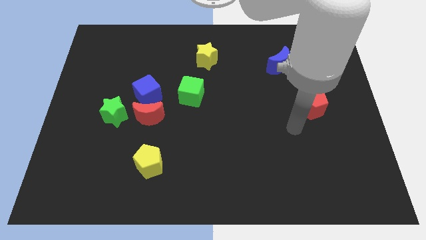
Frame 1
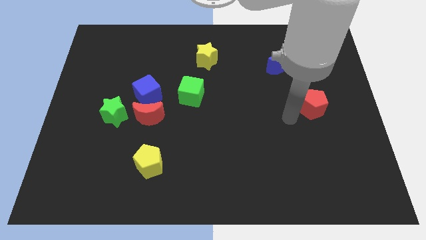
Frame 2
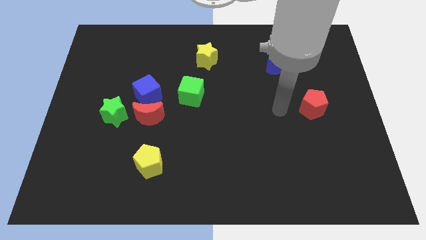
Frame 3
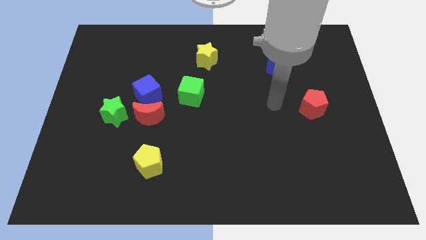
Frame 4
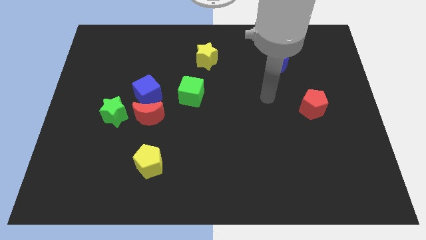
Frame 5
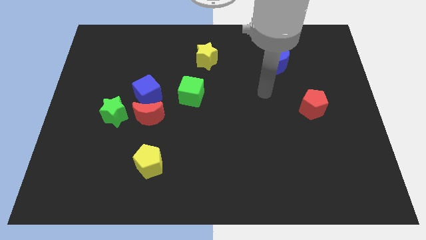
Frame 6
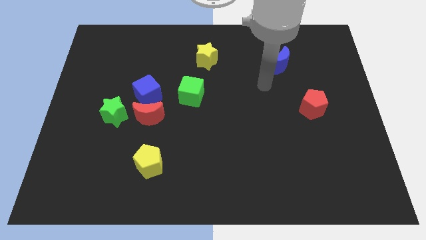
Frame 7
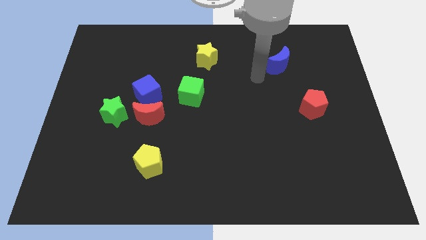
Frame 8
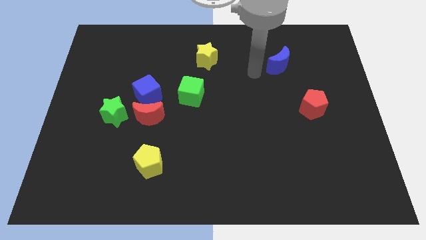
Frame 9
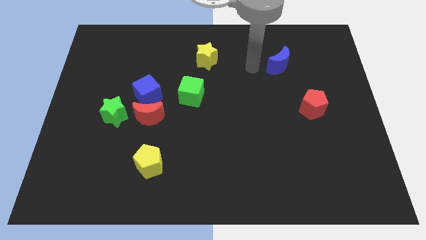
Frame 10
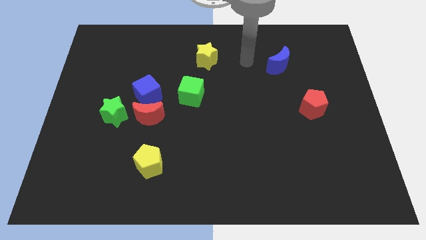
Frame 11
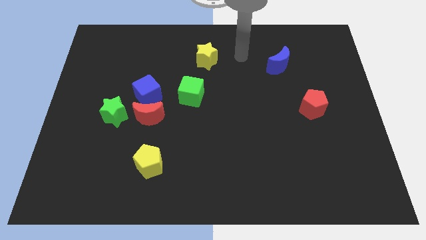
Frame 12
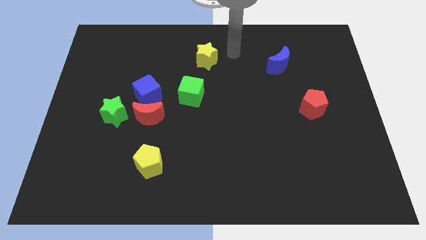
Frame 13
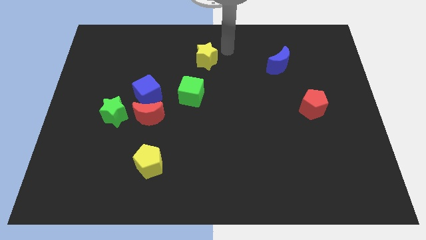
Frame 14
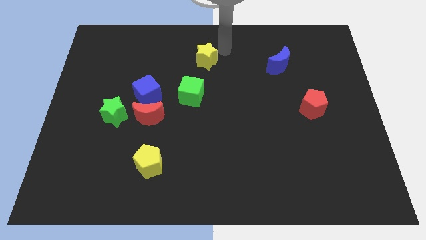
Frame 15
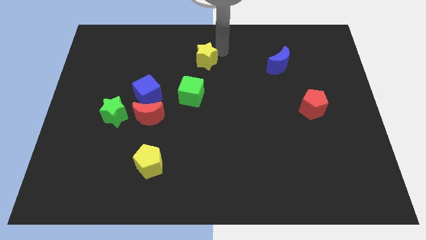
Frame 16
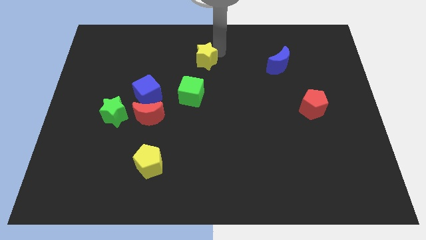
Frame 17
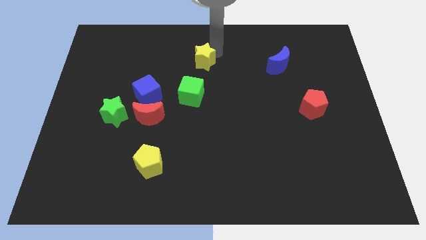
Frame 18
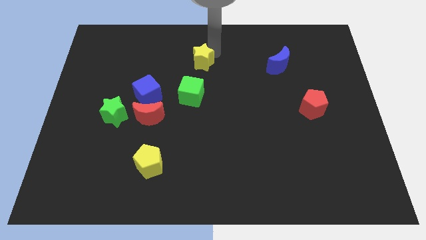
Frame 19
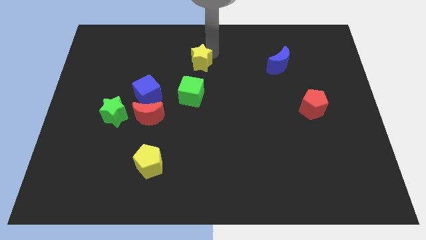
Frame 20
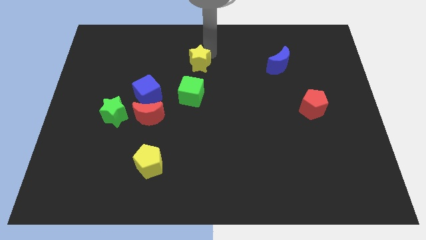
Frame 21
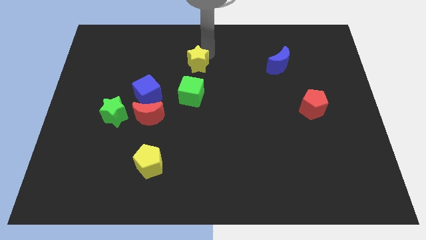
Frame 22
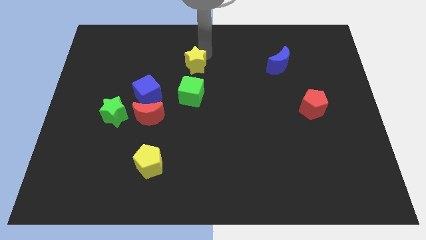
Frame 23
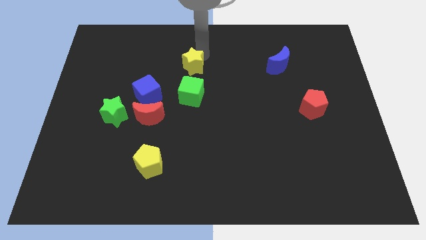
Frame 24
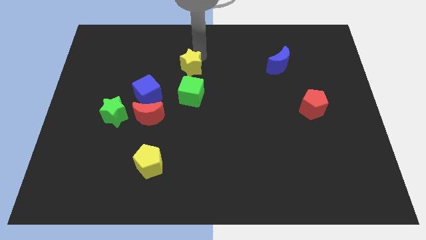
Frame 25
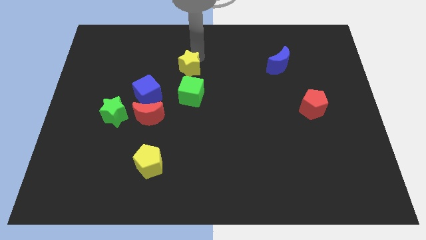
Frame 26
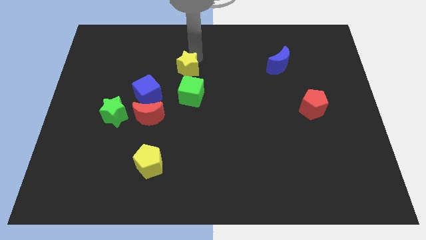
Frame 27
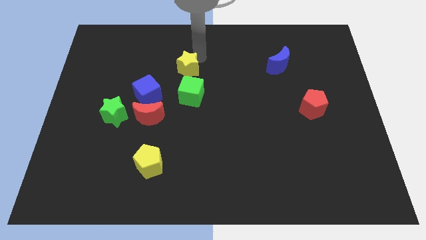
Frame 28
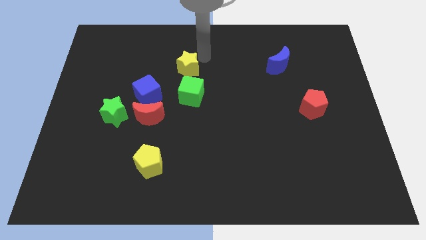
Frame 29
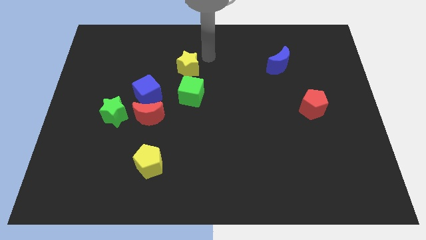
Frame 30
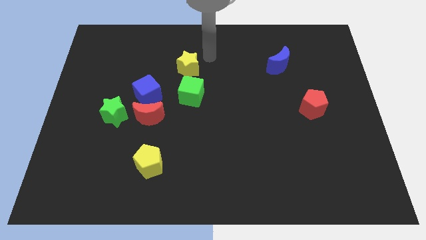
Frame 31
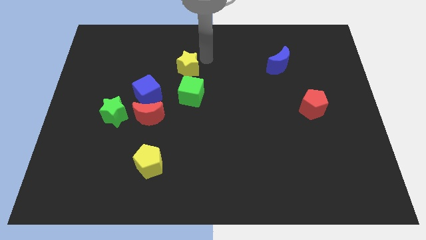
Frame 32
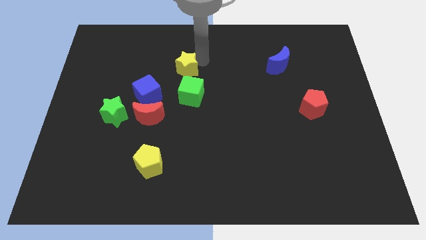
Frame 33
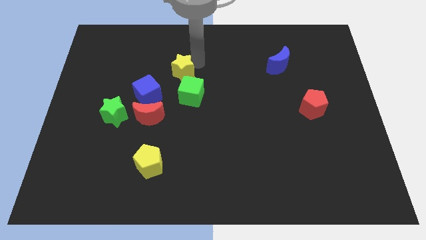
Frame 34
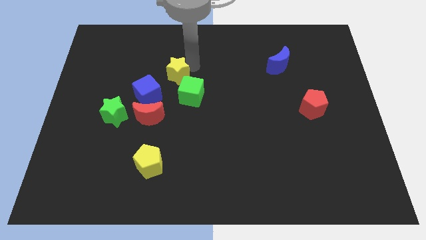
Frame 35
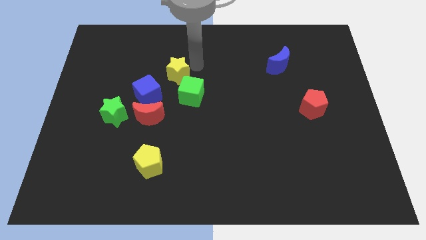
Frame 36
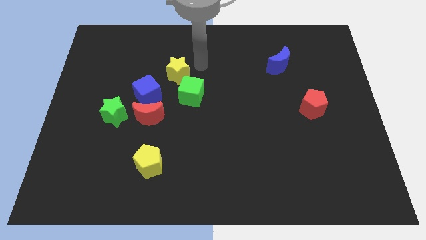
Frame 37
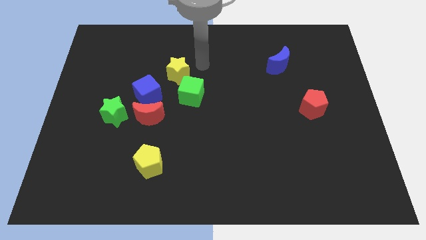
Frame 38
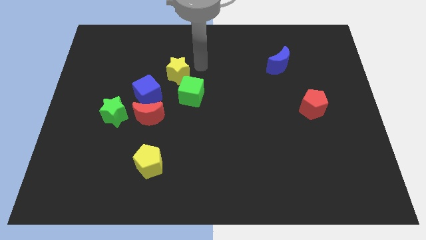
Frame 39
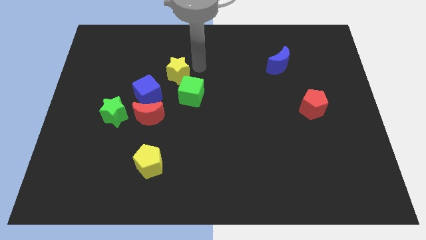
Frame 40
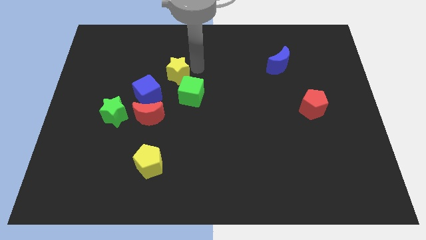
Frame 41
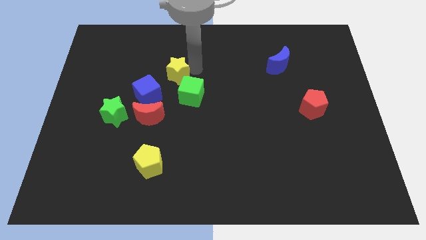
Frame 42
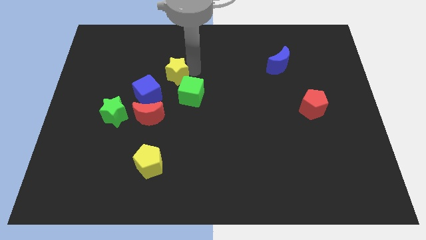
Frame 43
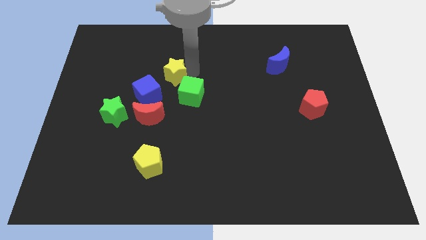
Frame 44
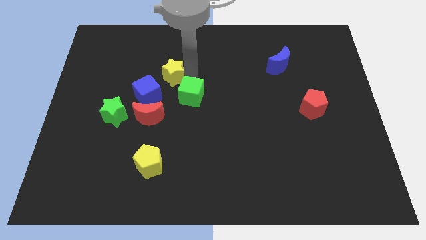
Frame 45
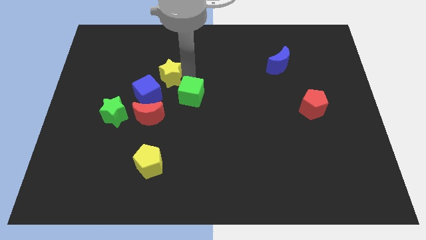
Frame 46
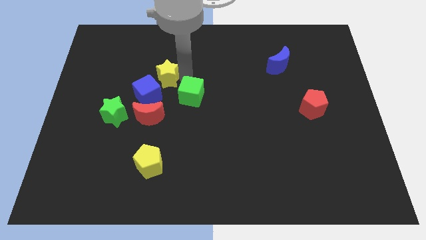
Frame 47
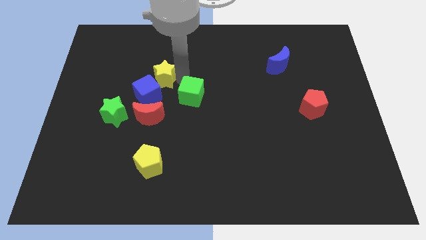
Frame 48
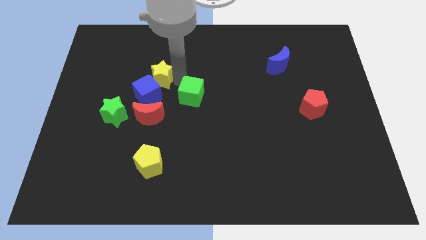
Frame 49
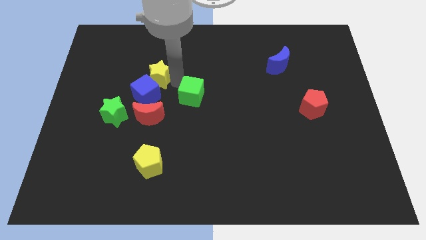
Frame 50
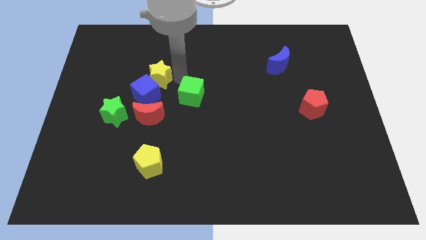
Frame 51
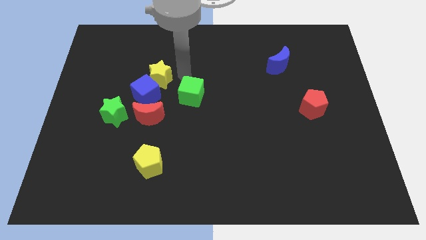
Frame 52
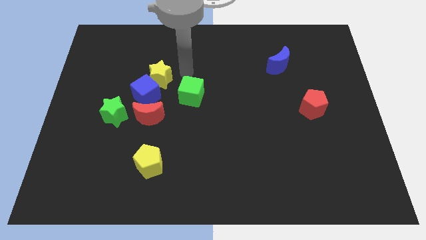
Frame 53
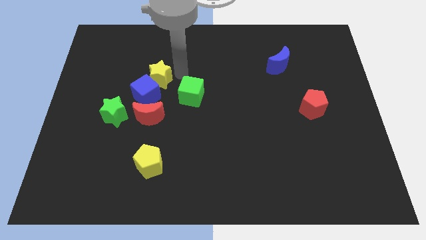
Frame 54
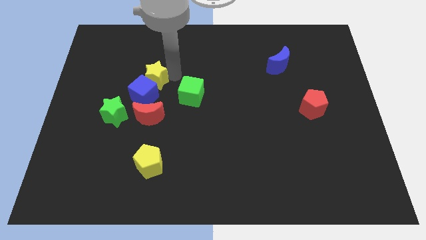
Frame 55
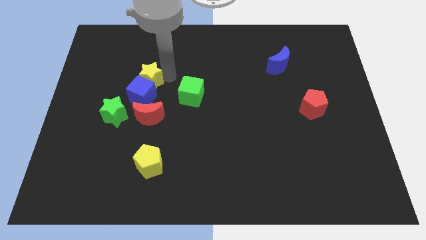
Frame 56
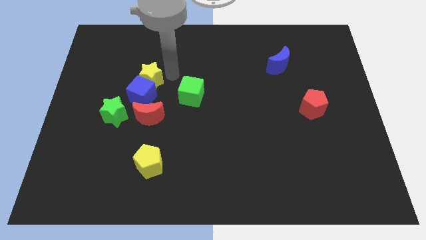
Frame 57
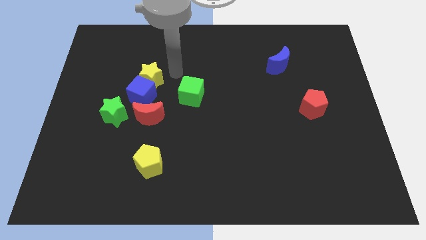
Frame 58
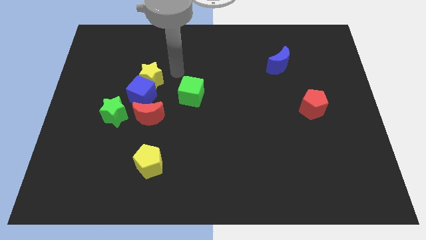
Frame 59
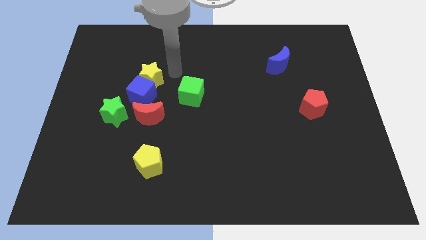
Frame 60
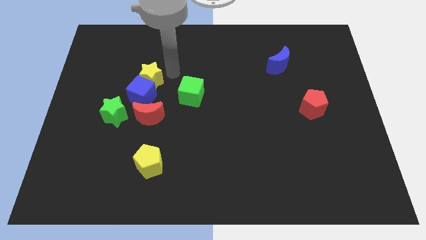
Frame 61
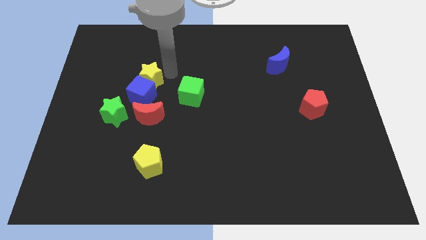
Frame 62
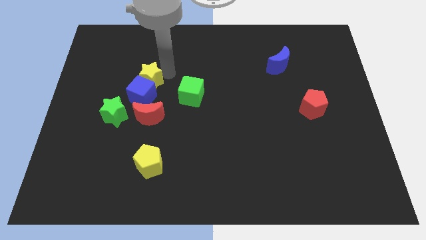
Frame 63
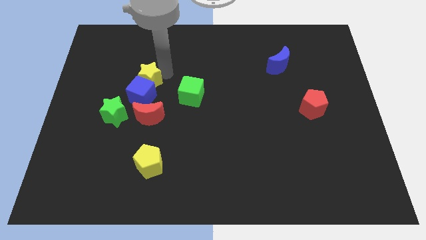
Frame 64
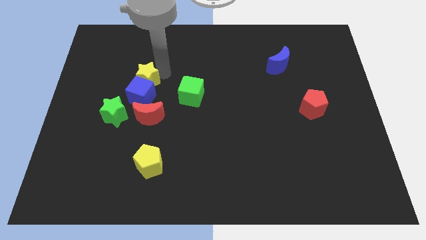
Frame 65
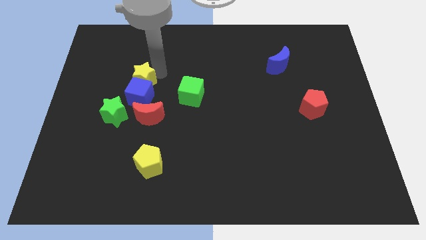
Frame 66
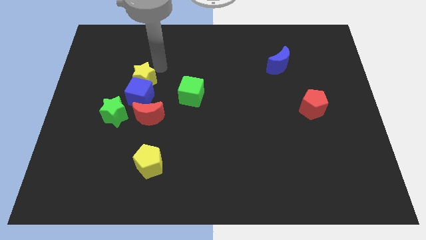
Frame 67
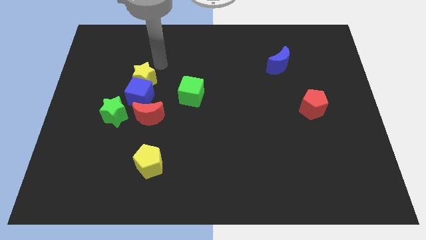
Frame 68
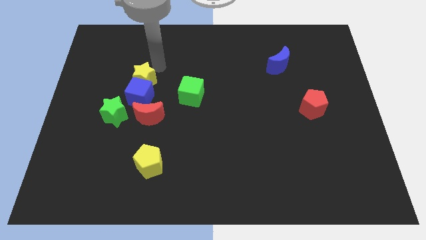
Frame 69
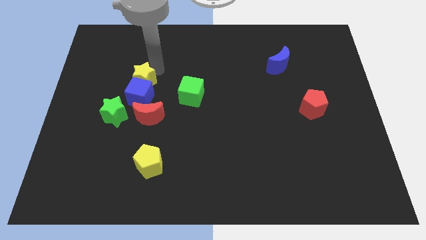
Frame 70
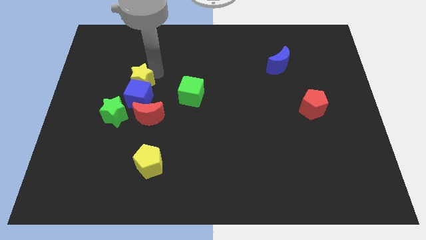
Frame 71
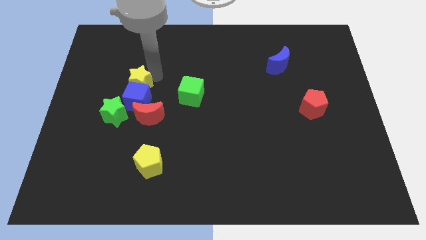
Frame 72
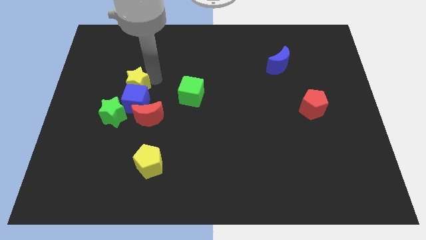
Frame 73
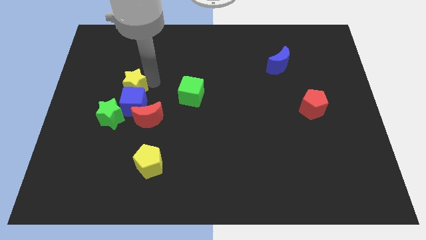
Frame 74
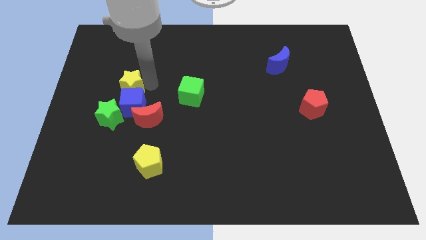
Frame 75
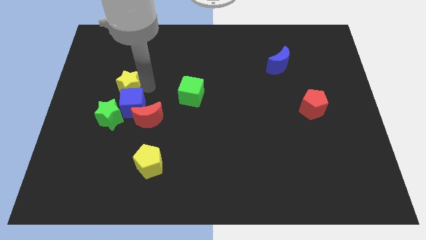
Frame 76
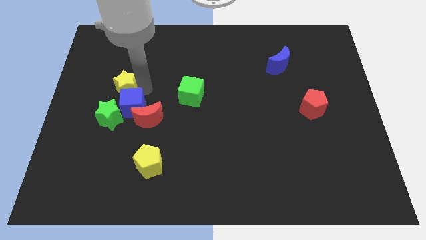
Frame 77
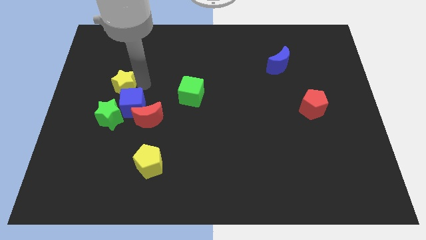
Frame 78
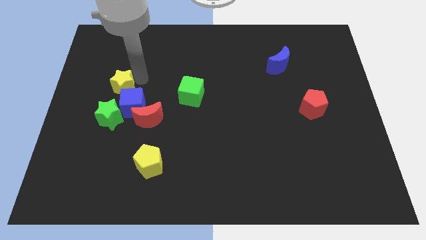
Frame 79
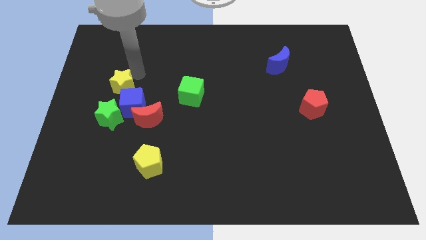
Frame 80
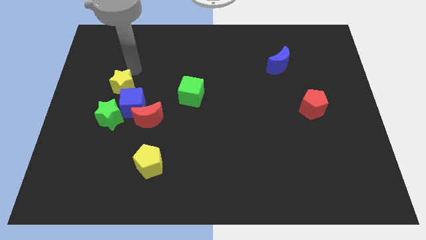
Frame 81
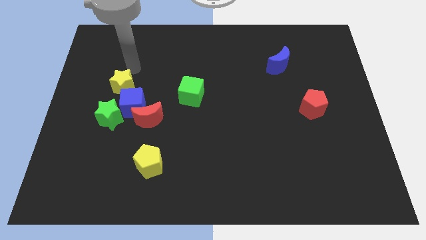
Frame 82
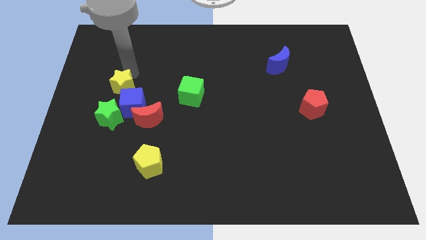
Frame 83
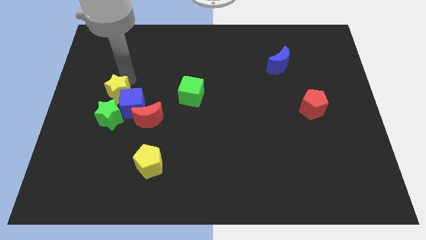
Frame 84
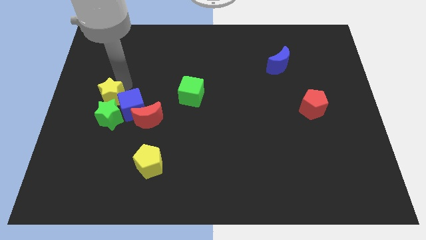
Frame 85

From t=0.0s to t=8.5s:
push the yellow star towards the green star
